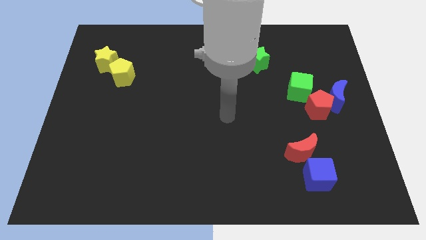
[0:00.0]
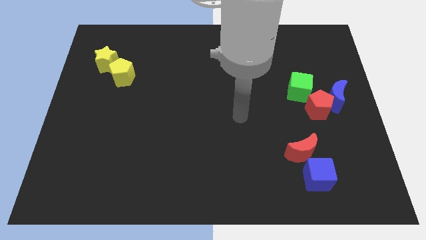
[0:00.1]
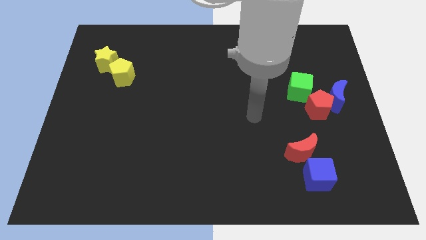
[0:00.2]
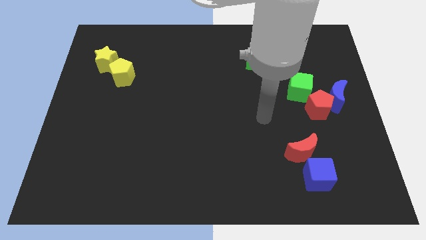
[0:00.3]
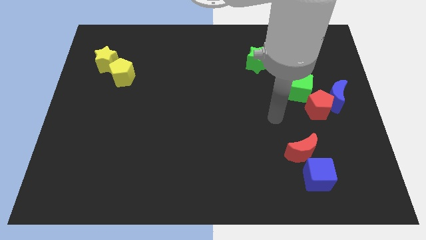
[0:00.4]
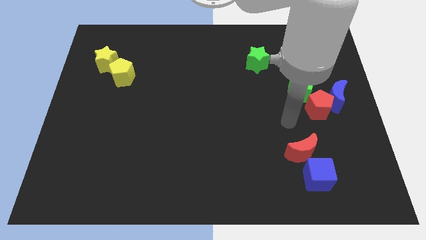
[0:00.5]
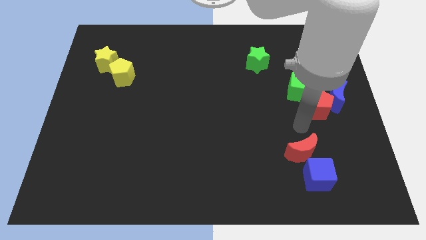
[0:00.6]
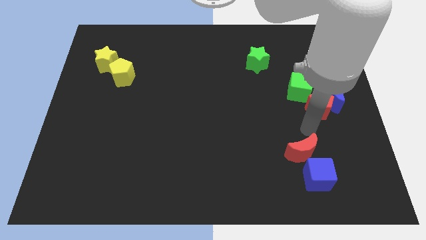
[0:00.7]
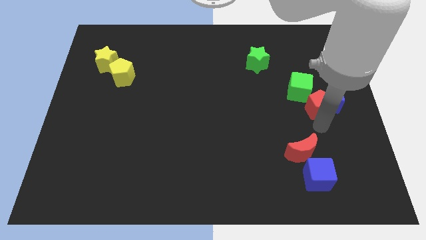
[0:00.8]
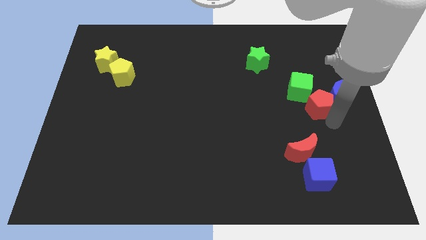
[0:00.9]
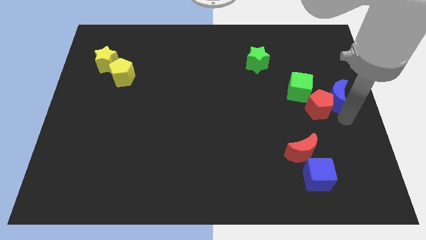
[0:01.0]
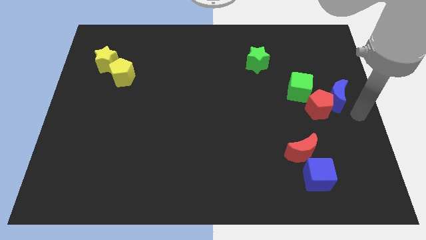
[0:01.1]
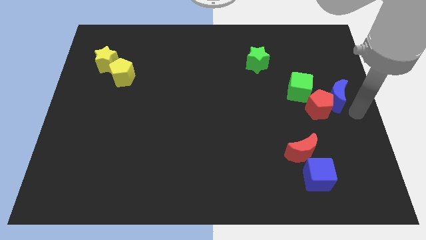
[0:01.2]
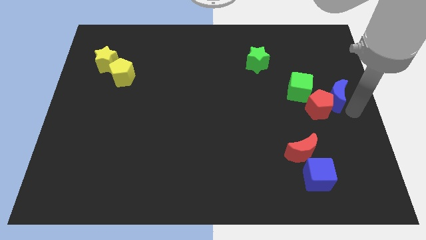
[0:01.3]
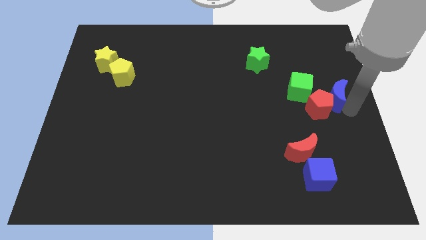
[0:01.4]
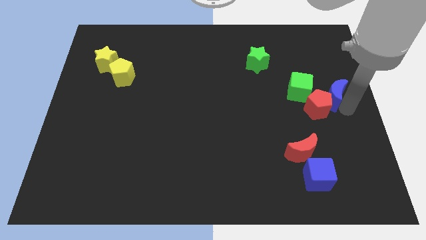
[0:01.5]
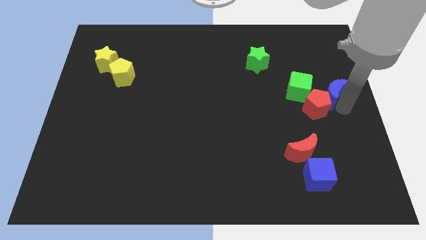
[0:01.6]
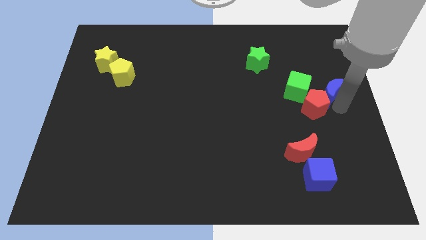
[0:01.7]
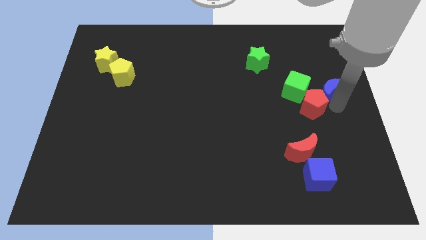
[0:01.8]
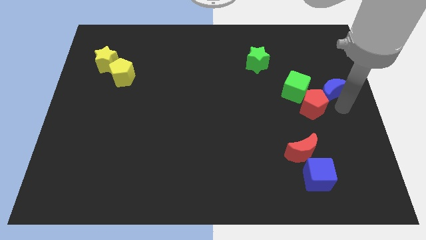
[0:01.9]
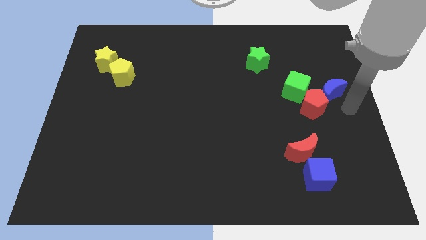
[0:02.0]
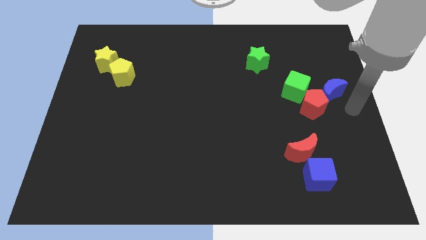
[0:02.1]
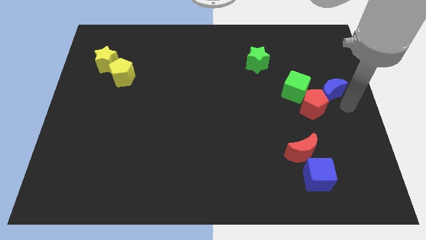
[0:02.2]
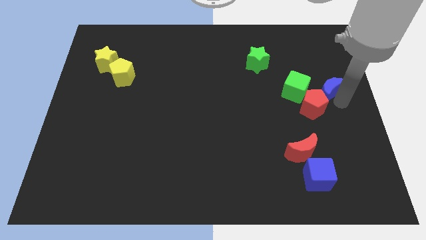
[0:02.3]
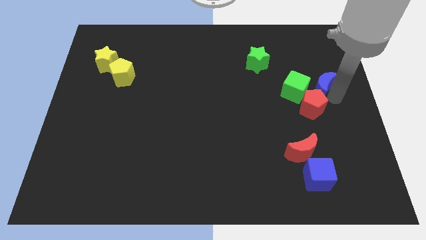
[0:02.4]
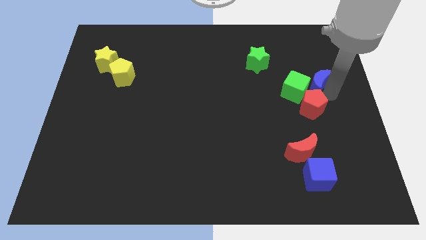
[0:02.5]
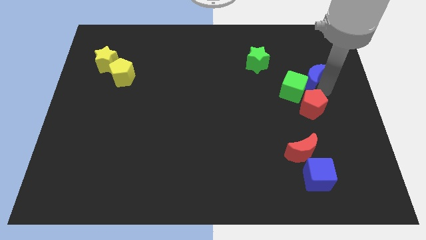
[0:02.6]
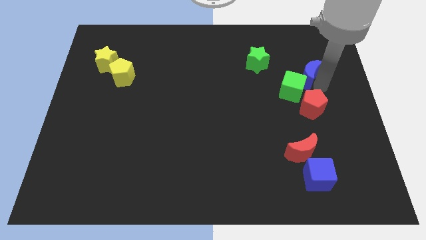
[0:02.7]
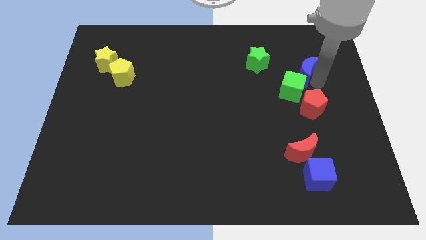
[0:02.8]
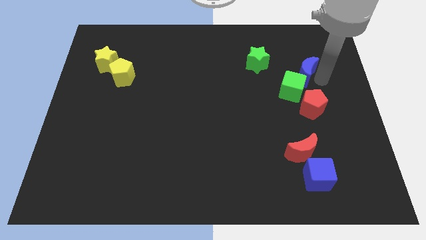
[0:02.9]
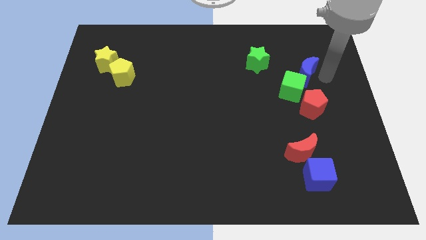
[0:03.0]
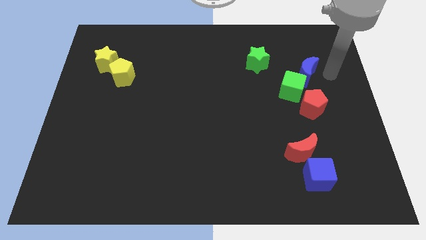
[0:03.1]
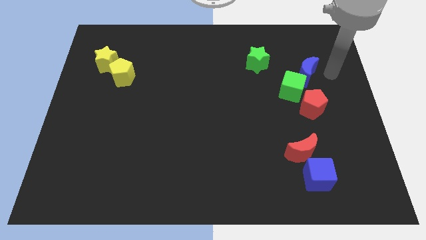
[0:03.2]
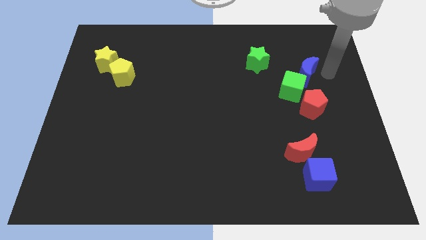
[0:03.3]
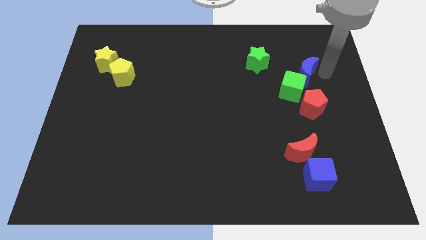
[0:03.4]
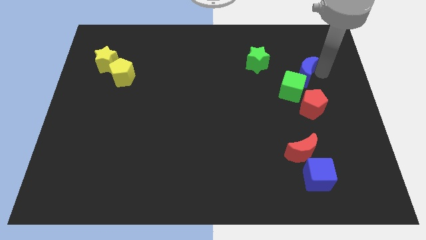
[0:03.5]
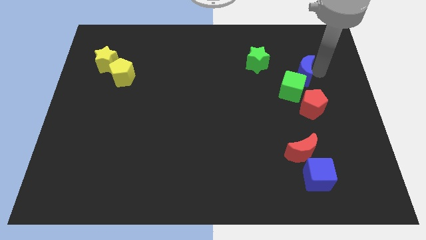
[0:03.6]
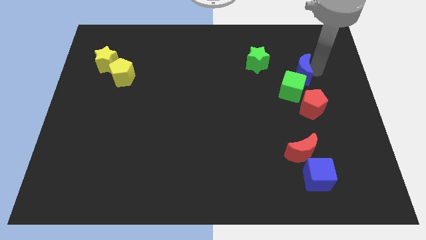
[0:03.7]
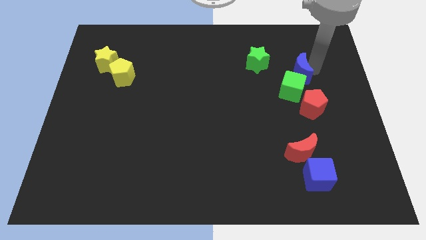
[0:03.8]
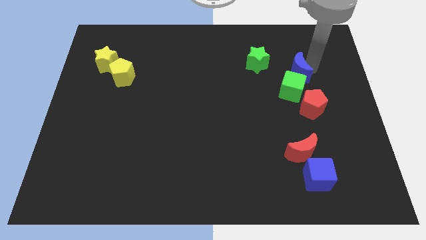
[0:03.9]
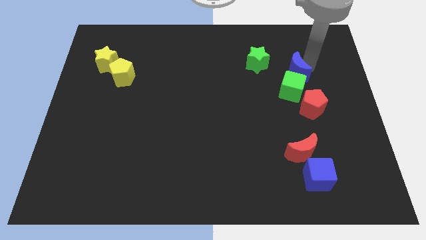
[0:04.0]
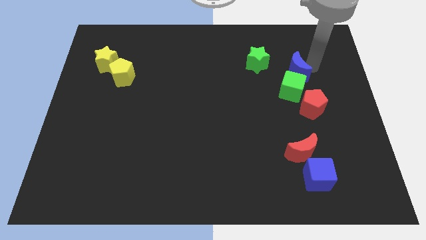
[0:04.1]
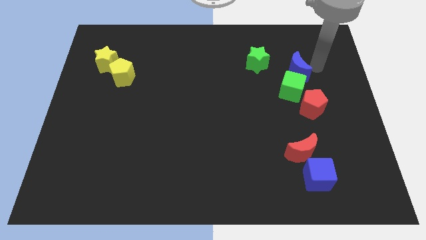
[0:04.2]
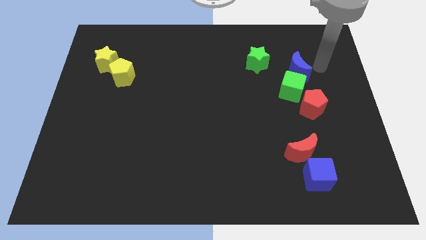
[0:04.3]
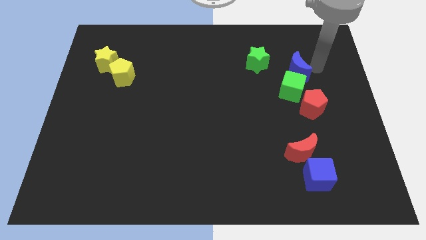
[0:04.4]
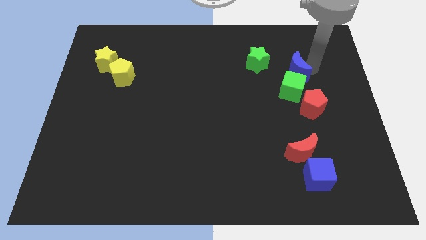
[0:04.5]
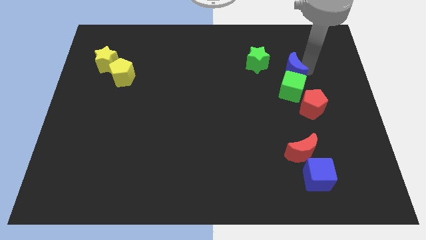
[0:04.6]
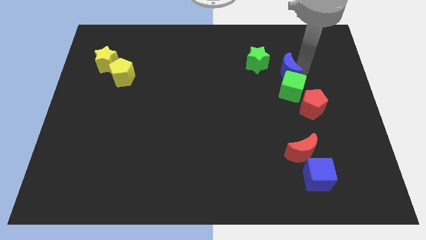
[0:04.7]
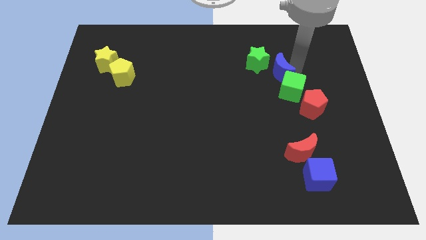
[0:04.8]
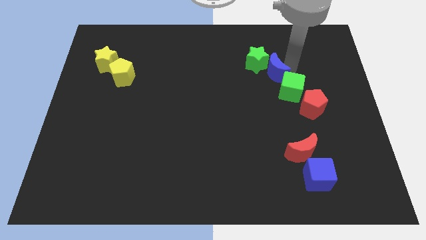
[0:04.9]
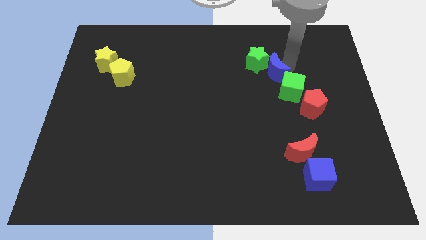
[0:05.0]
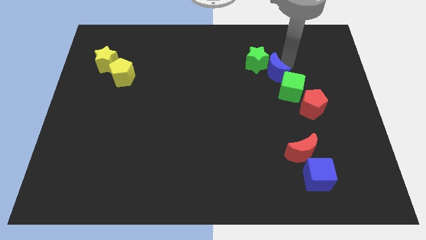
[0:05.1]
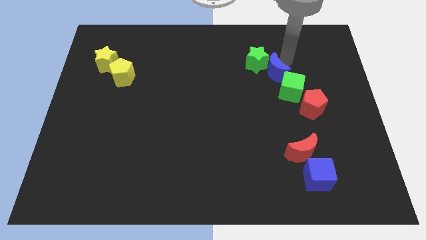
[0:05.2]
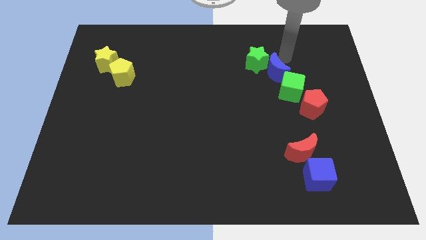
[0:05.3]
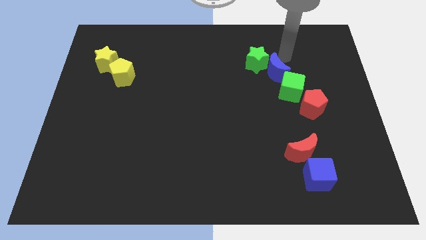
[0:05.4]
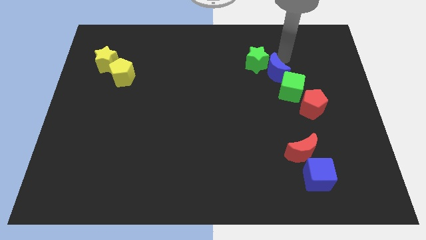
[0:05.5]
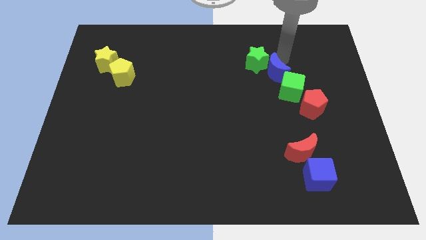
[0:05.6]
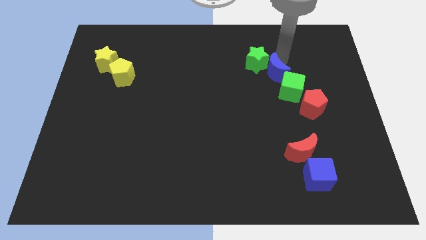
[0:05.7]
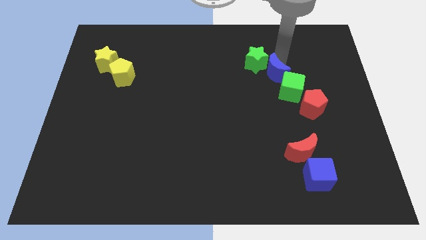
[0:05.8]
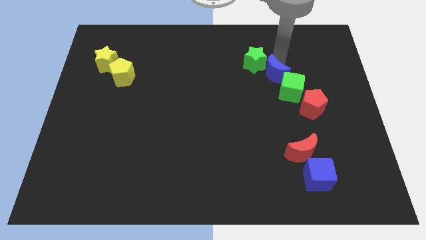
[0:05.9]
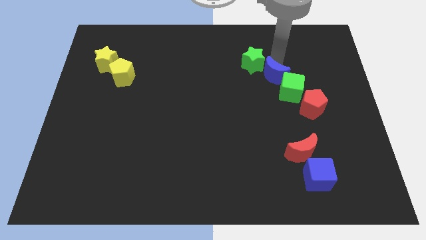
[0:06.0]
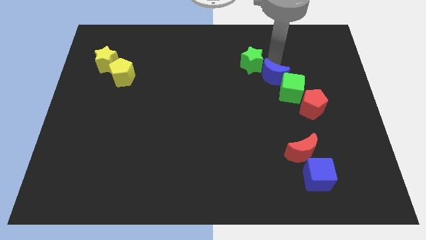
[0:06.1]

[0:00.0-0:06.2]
move the blue moon left of the green cube

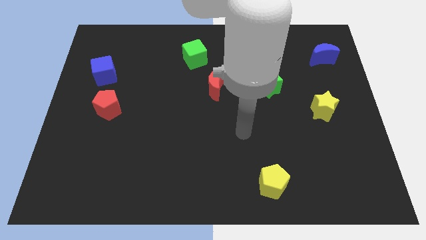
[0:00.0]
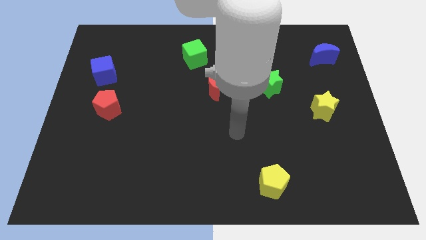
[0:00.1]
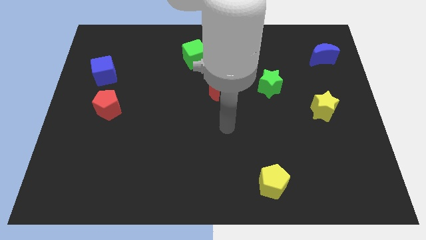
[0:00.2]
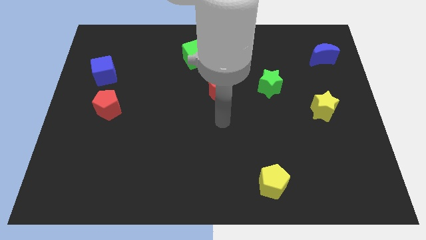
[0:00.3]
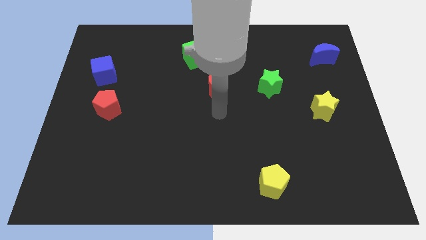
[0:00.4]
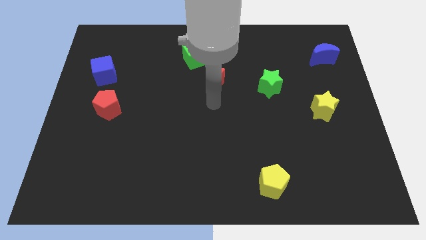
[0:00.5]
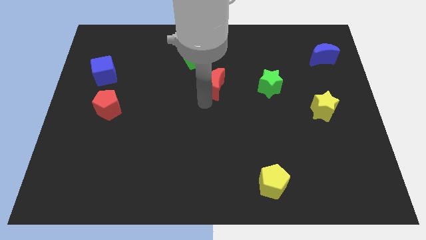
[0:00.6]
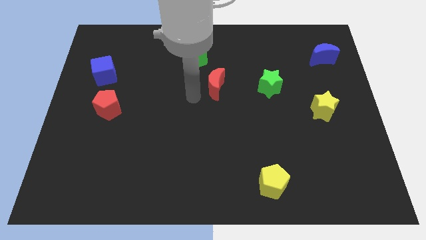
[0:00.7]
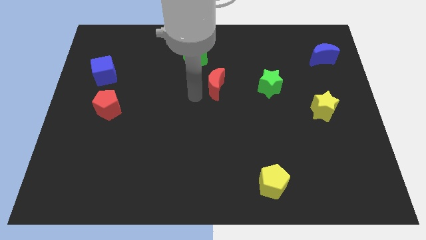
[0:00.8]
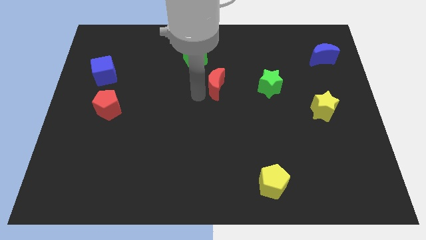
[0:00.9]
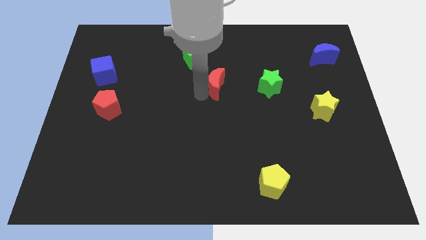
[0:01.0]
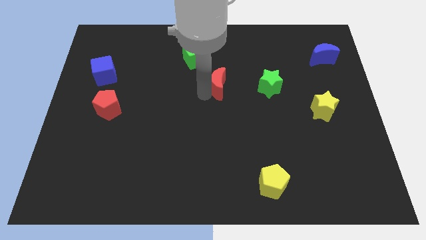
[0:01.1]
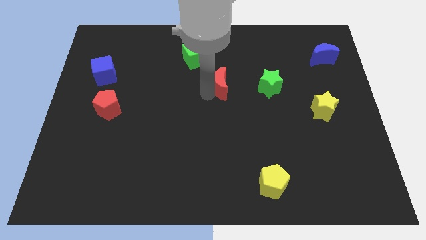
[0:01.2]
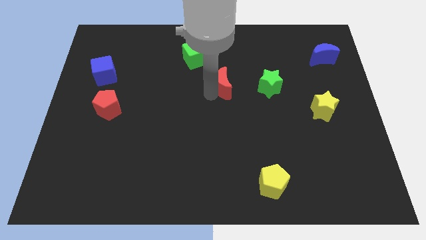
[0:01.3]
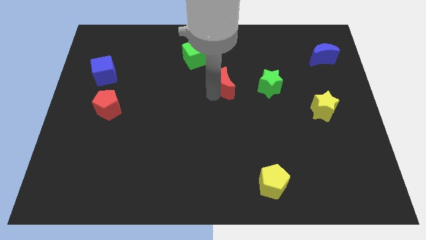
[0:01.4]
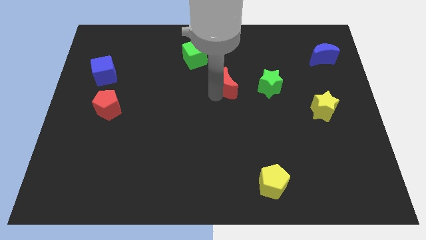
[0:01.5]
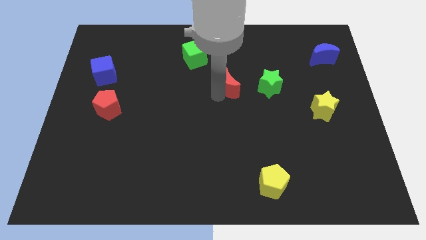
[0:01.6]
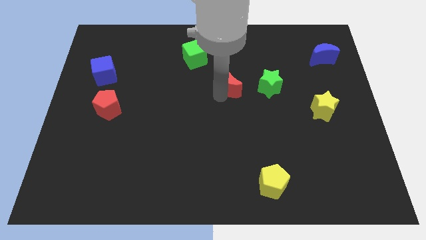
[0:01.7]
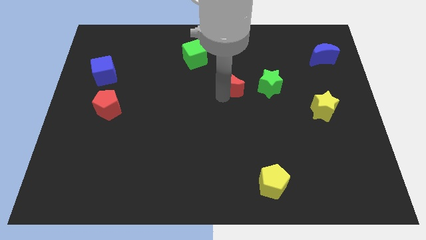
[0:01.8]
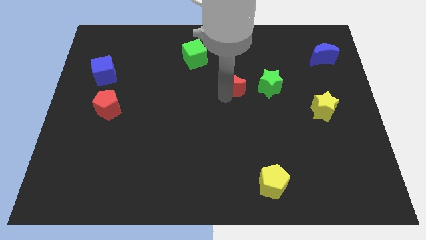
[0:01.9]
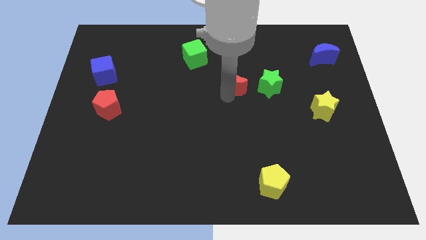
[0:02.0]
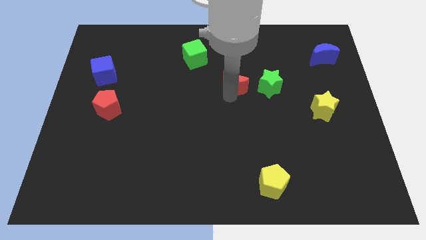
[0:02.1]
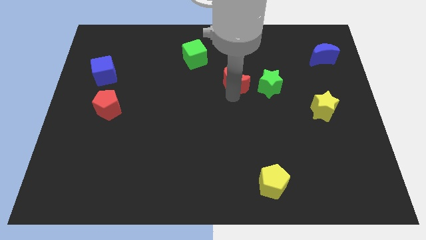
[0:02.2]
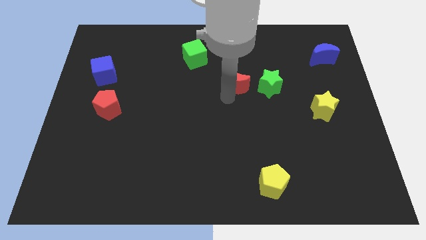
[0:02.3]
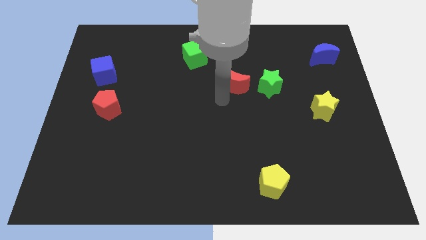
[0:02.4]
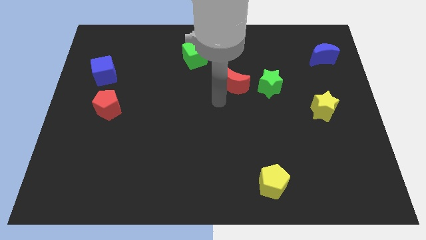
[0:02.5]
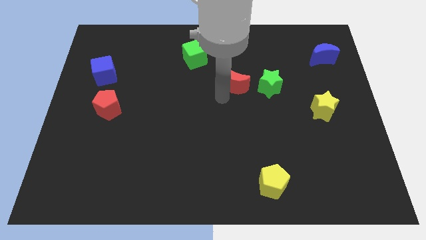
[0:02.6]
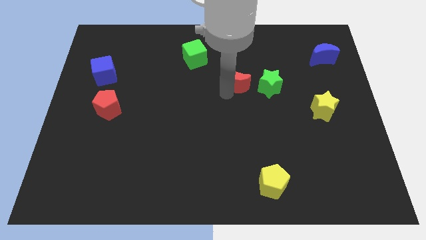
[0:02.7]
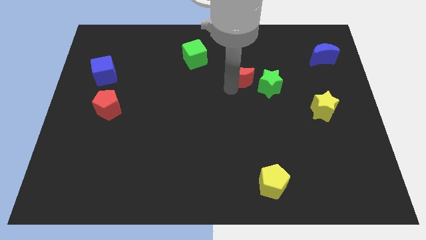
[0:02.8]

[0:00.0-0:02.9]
slide the red moon to the top left of the green star
